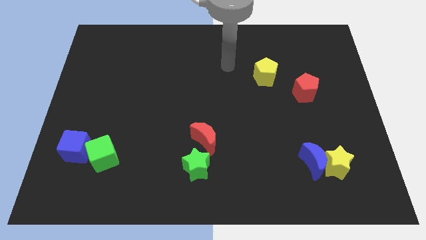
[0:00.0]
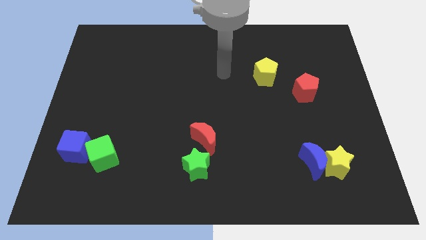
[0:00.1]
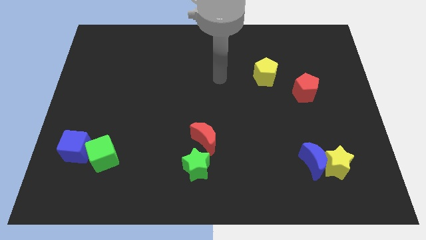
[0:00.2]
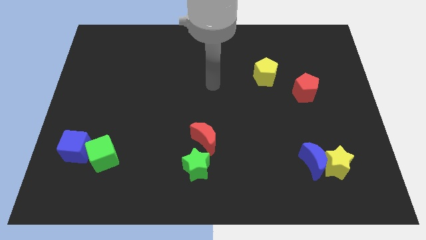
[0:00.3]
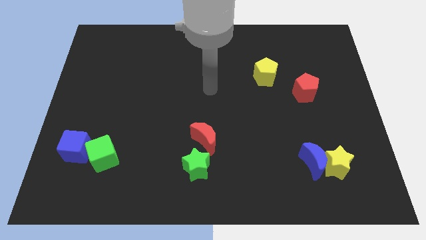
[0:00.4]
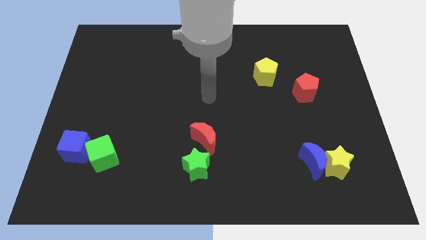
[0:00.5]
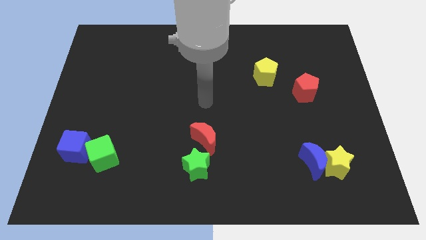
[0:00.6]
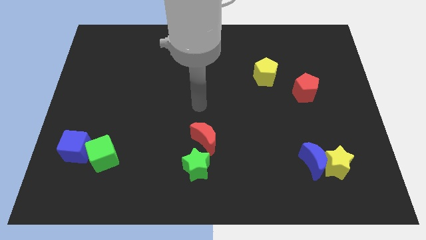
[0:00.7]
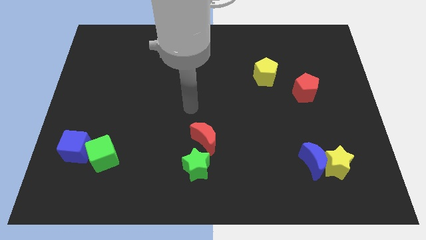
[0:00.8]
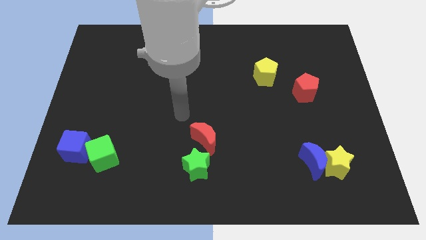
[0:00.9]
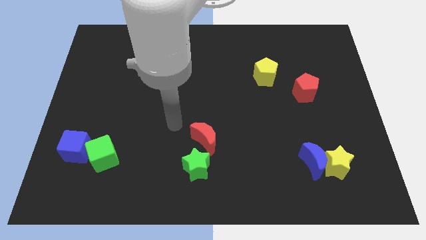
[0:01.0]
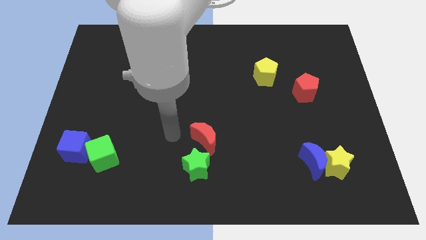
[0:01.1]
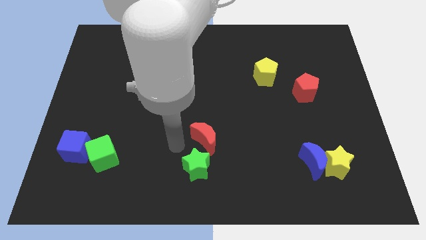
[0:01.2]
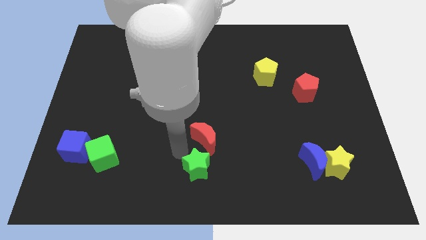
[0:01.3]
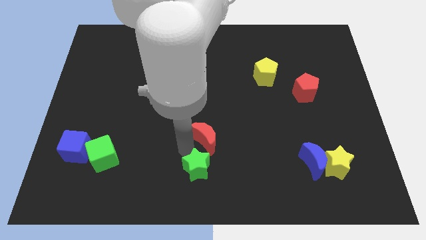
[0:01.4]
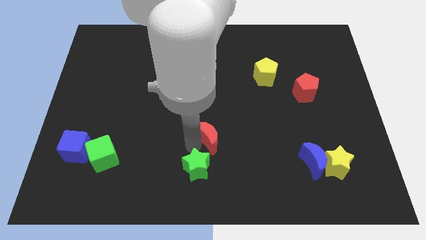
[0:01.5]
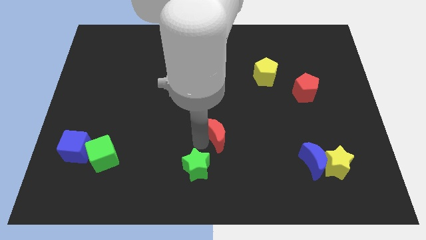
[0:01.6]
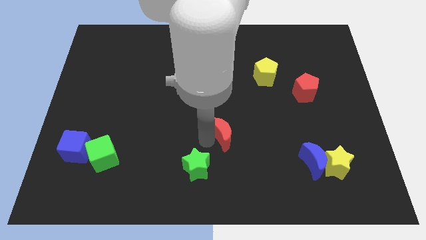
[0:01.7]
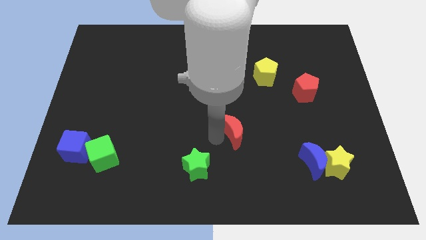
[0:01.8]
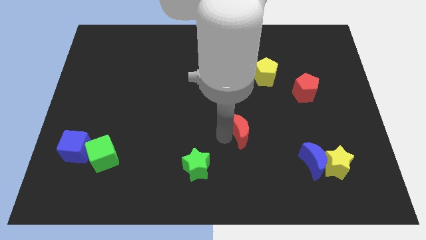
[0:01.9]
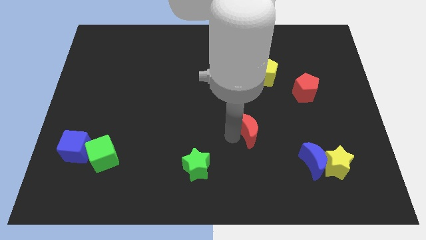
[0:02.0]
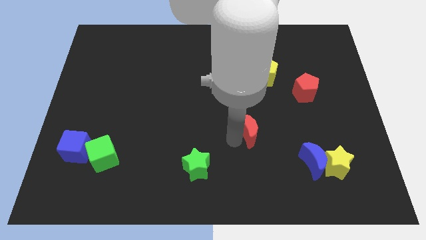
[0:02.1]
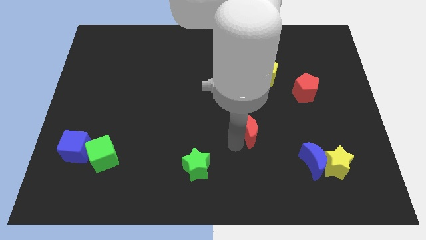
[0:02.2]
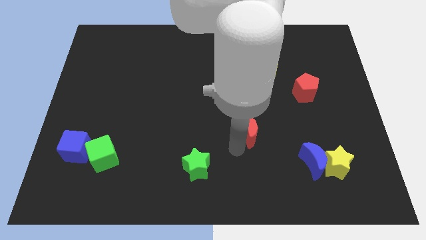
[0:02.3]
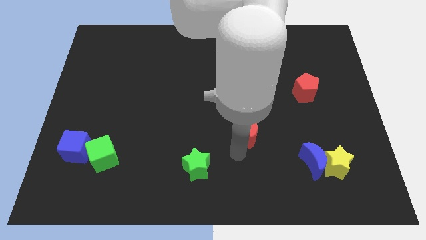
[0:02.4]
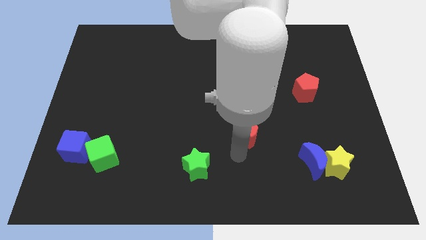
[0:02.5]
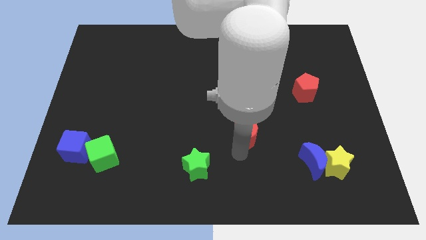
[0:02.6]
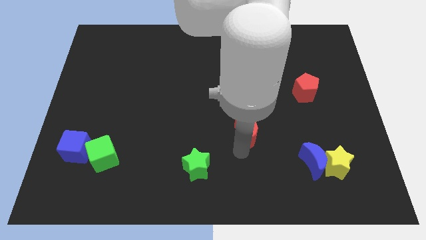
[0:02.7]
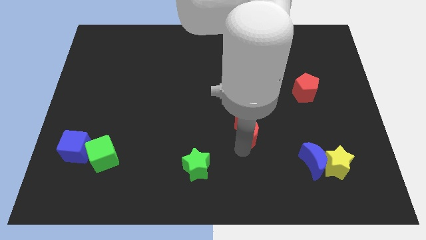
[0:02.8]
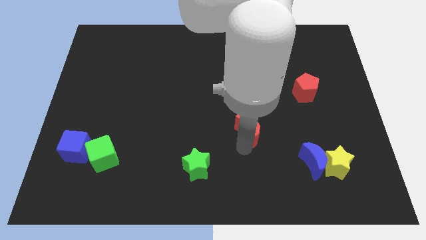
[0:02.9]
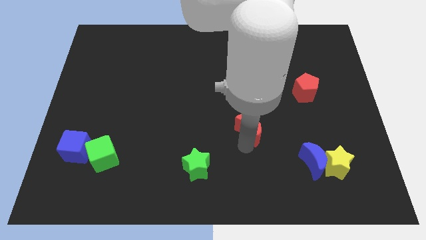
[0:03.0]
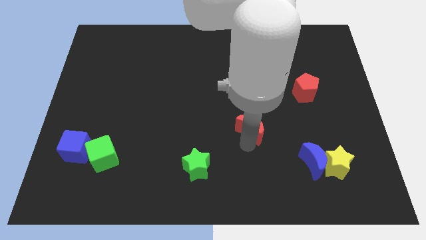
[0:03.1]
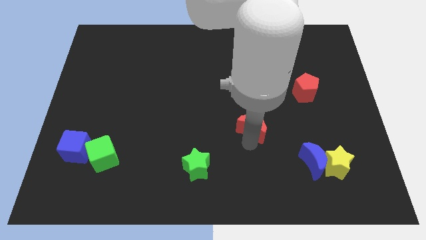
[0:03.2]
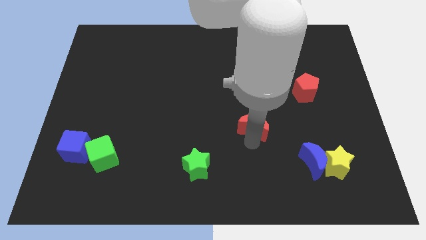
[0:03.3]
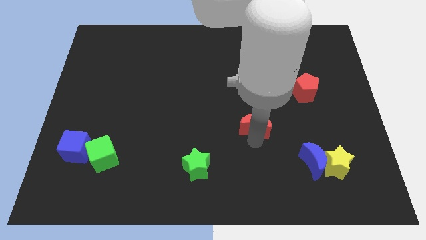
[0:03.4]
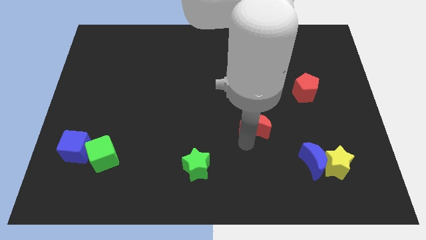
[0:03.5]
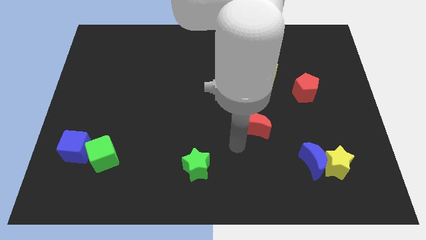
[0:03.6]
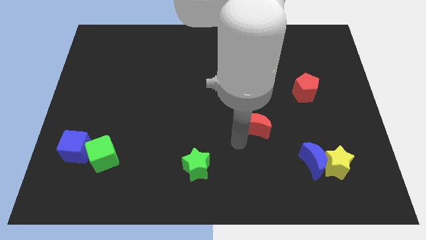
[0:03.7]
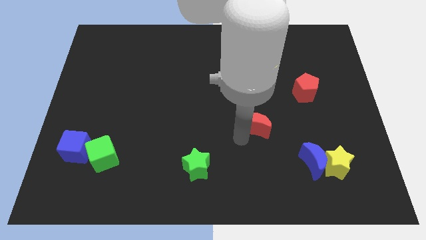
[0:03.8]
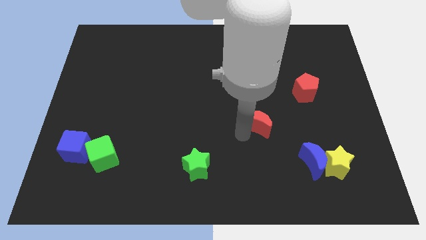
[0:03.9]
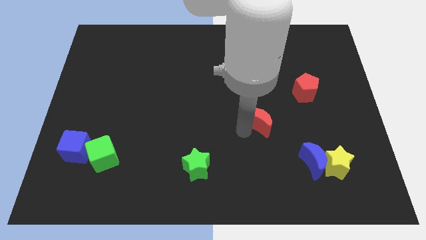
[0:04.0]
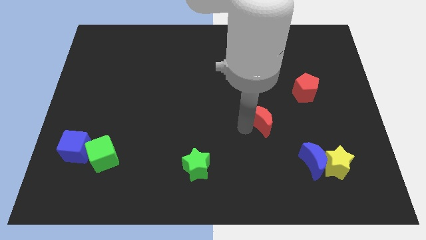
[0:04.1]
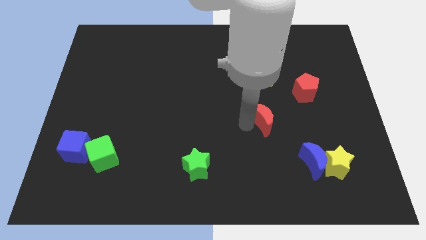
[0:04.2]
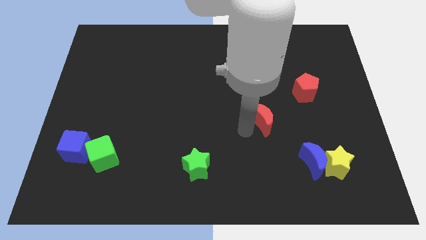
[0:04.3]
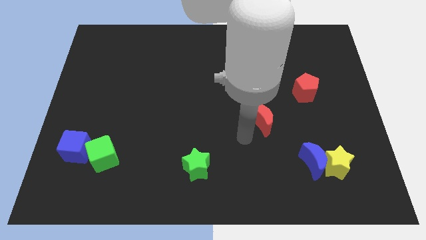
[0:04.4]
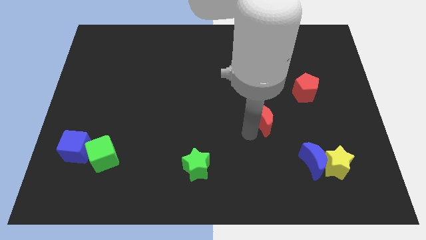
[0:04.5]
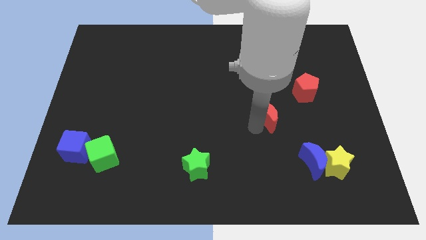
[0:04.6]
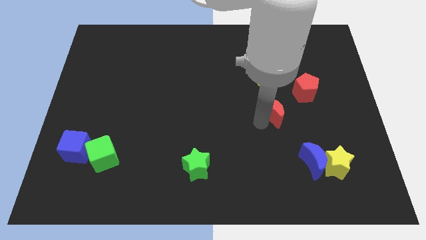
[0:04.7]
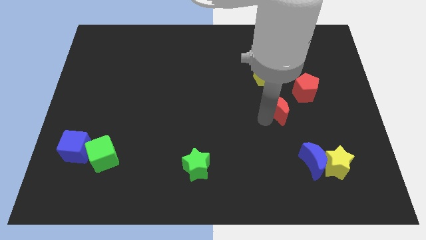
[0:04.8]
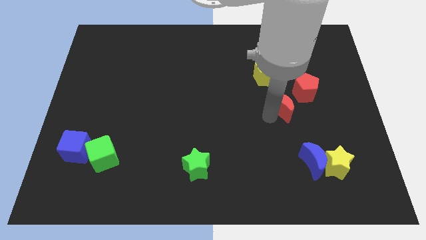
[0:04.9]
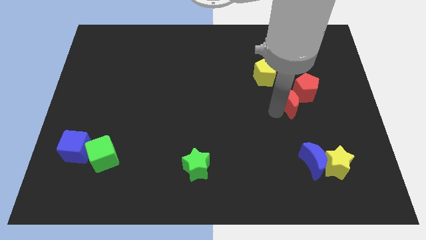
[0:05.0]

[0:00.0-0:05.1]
push the red moon next to the red pentagon

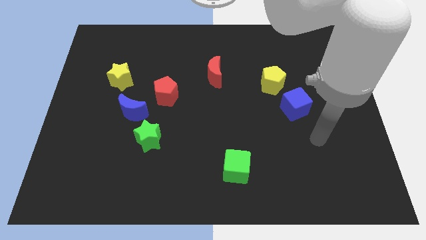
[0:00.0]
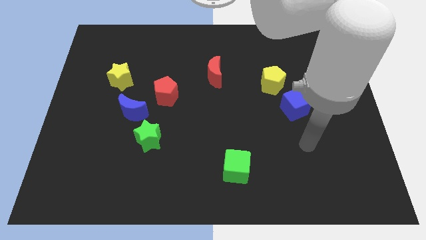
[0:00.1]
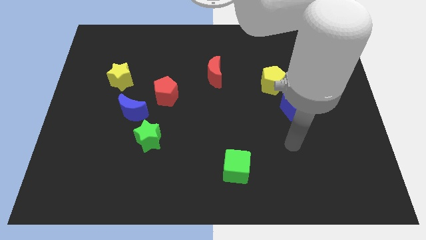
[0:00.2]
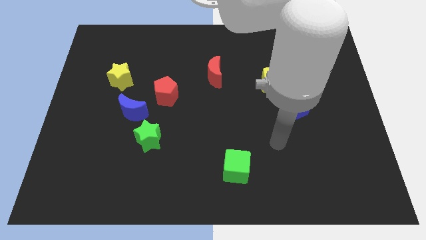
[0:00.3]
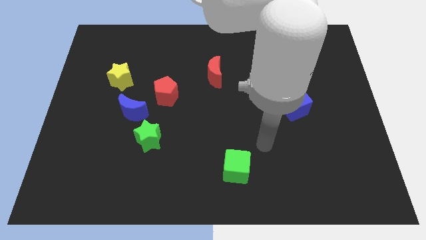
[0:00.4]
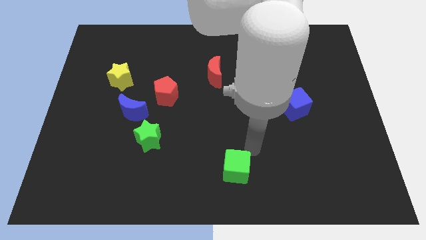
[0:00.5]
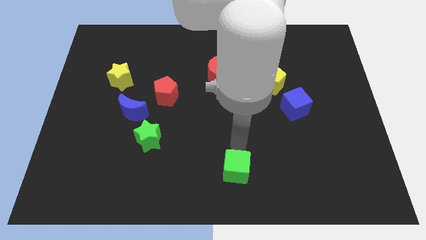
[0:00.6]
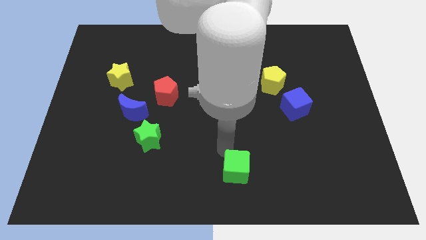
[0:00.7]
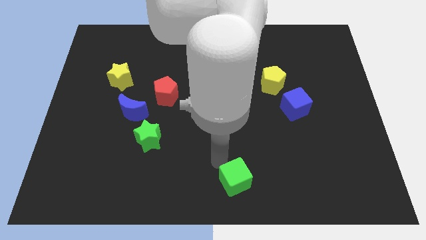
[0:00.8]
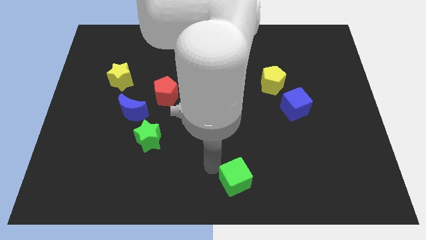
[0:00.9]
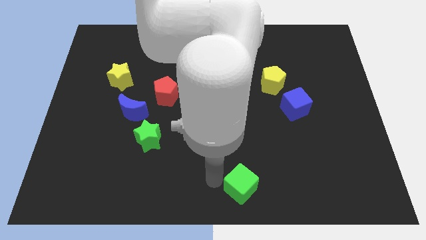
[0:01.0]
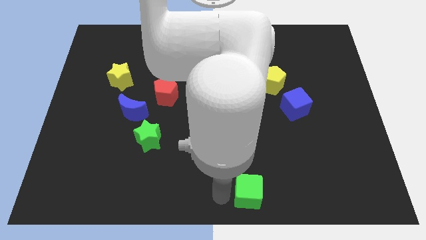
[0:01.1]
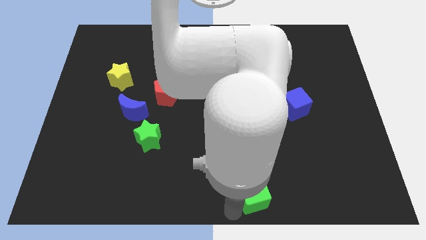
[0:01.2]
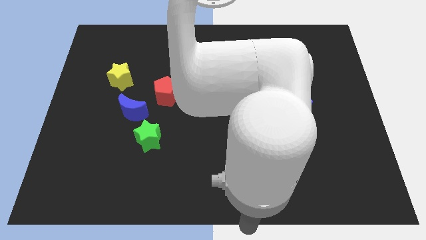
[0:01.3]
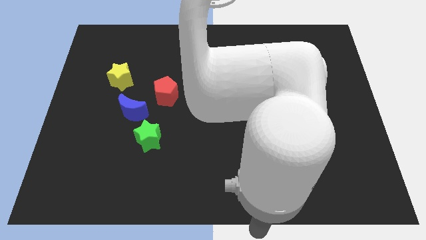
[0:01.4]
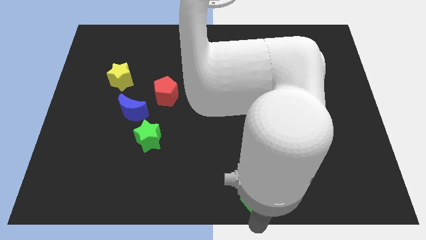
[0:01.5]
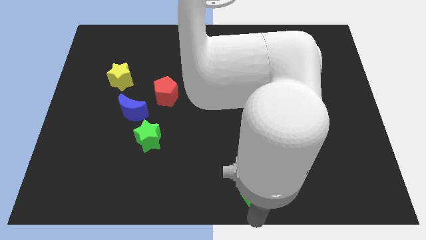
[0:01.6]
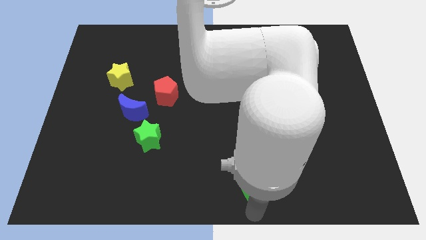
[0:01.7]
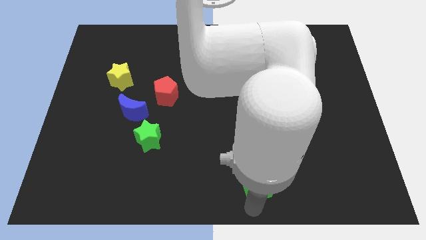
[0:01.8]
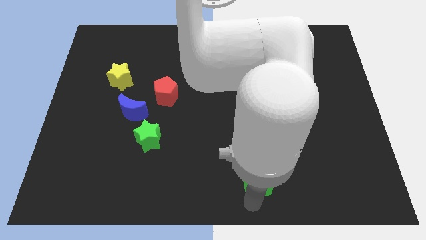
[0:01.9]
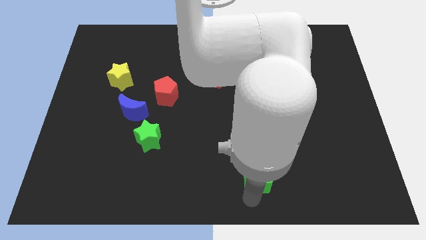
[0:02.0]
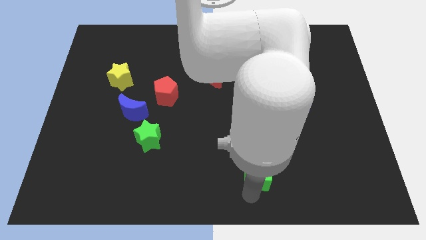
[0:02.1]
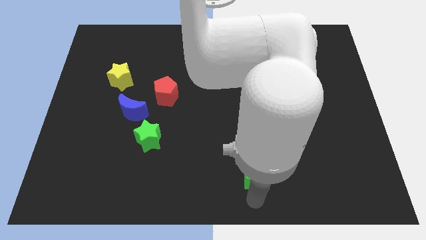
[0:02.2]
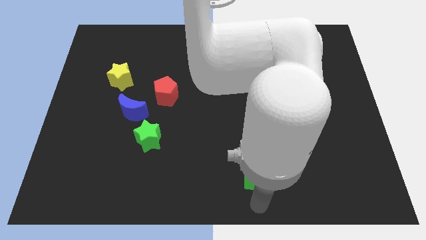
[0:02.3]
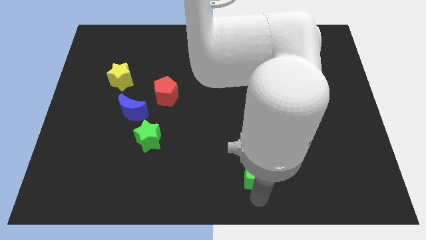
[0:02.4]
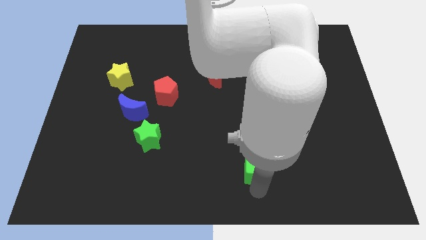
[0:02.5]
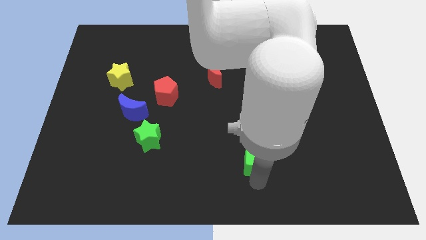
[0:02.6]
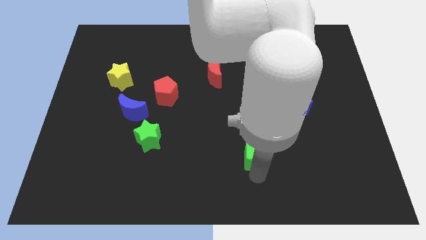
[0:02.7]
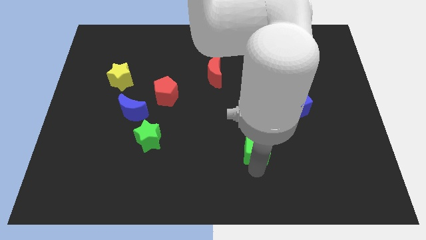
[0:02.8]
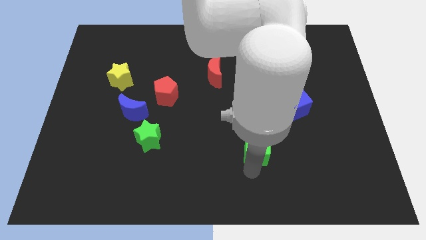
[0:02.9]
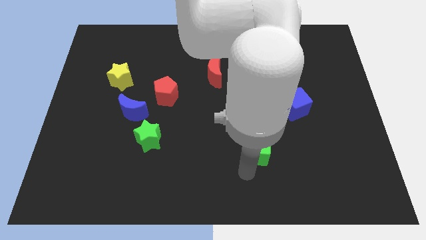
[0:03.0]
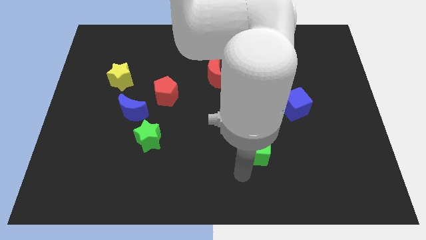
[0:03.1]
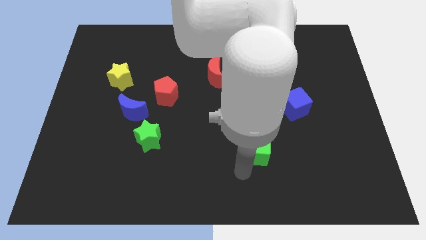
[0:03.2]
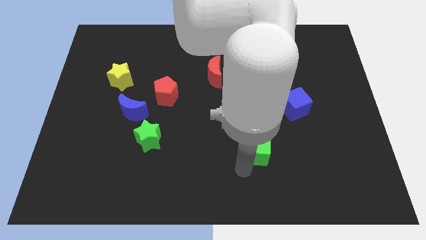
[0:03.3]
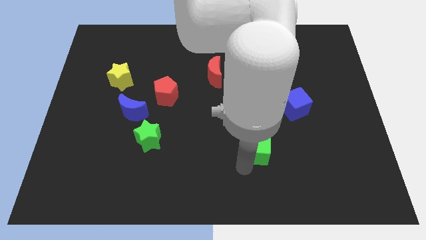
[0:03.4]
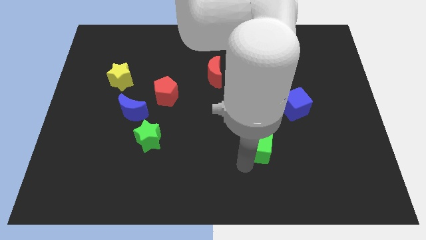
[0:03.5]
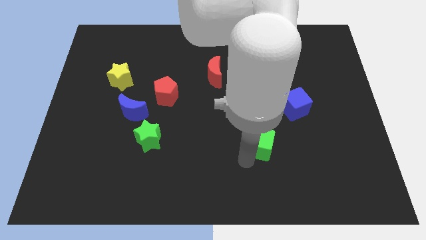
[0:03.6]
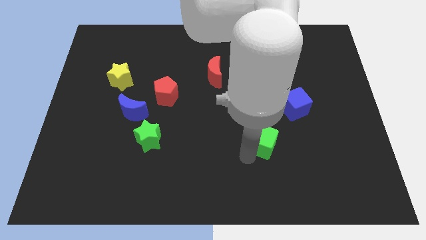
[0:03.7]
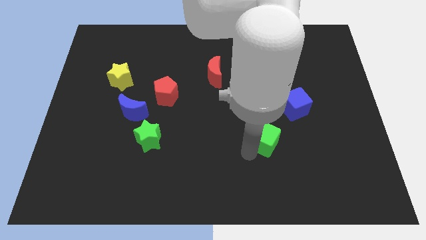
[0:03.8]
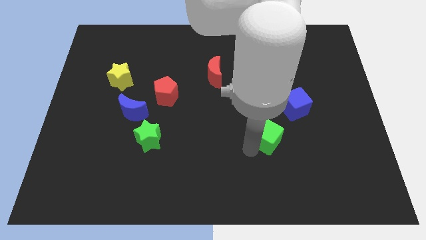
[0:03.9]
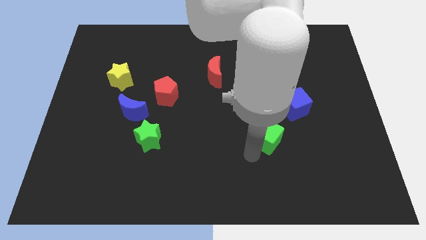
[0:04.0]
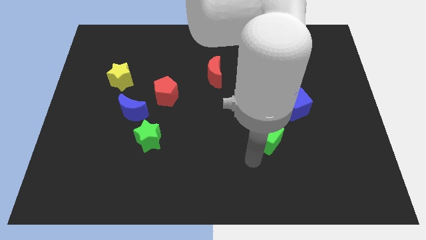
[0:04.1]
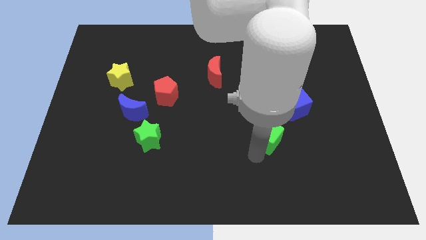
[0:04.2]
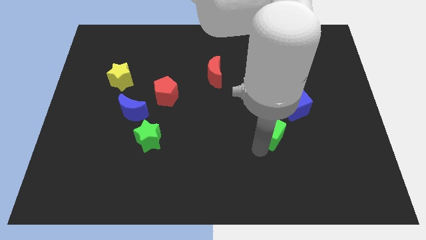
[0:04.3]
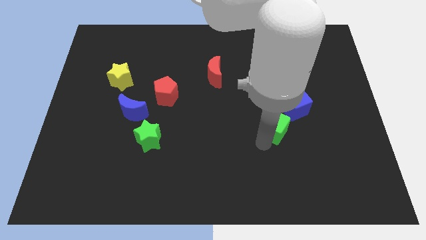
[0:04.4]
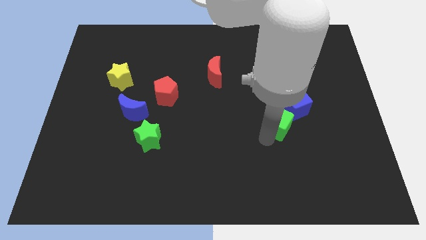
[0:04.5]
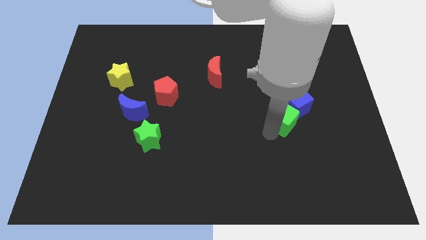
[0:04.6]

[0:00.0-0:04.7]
put the green cube next to the blue cube
